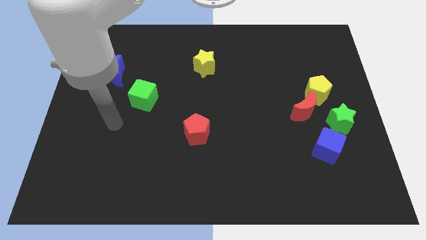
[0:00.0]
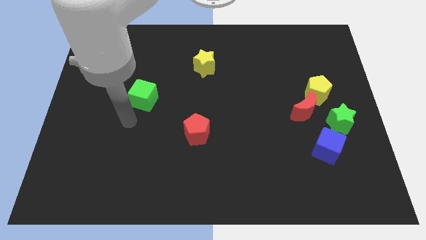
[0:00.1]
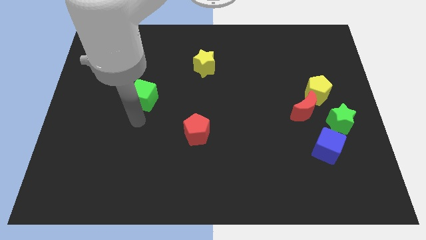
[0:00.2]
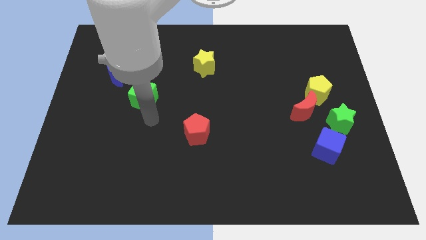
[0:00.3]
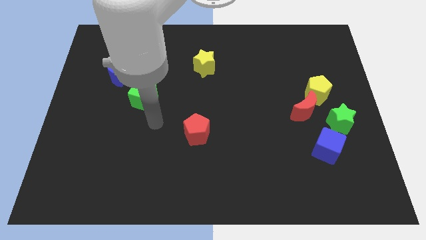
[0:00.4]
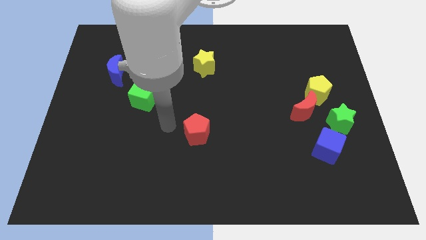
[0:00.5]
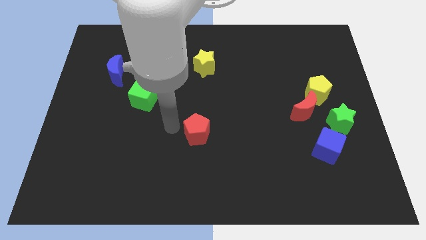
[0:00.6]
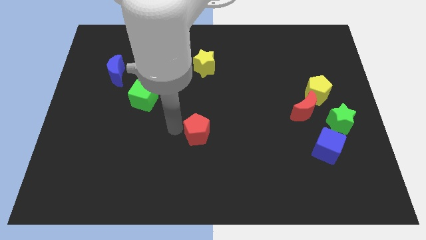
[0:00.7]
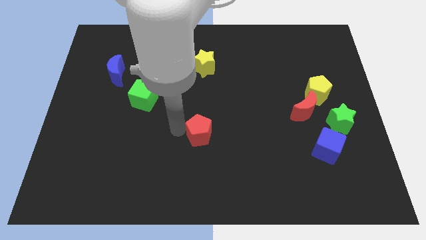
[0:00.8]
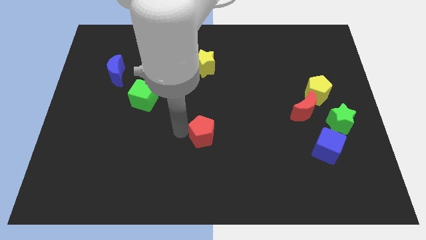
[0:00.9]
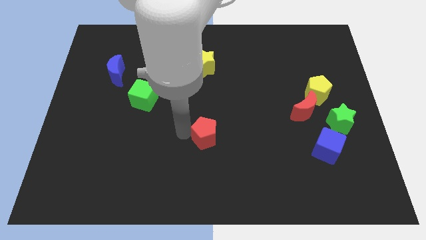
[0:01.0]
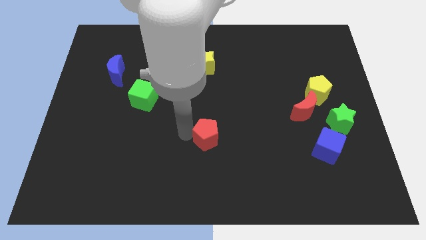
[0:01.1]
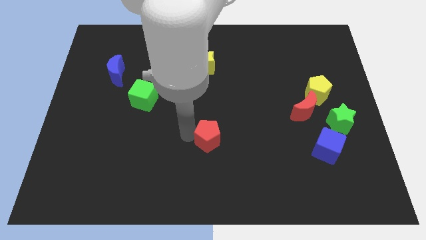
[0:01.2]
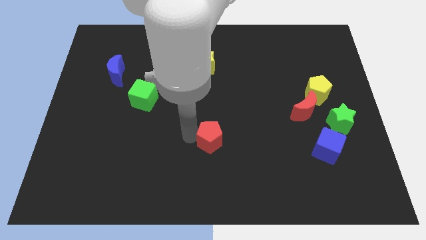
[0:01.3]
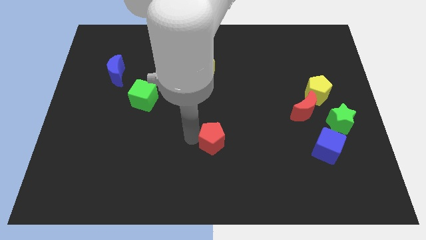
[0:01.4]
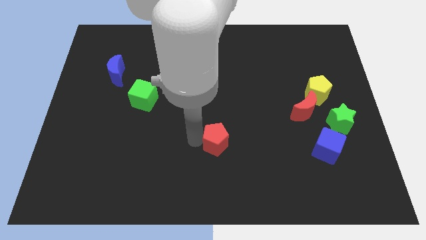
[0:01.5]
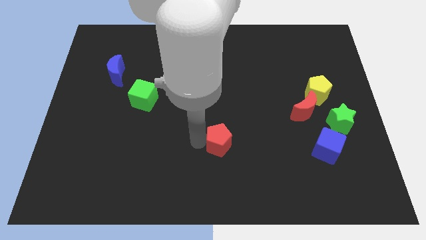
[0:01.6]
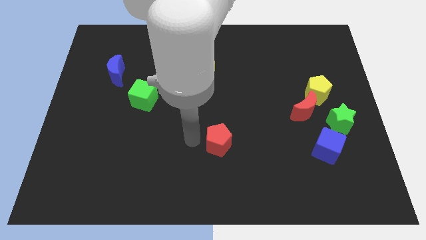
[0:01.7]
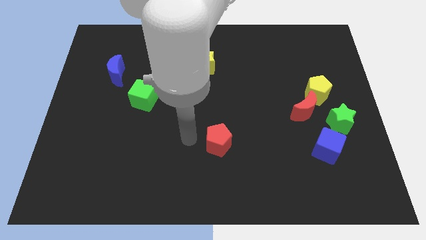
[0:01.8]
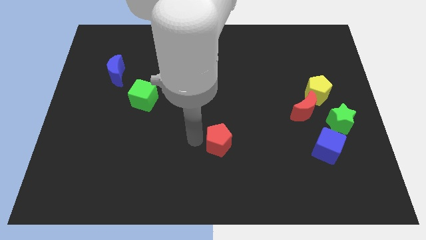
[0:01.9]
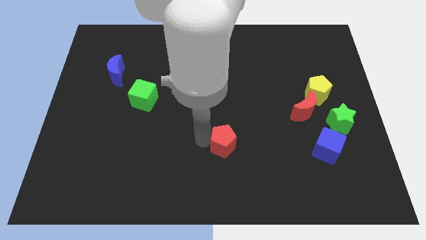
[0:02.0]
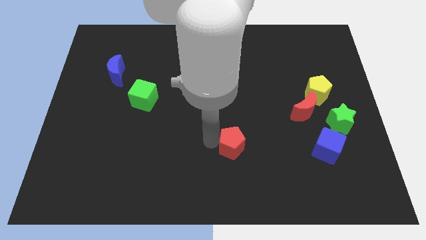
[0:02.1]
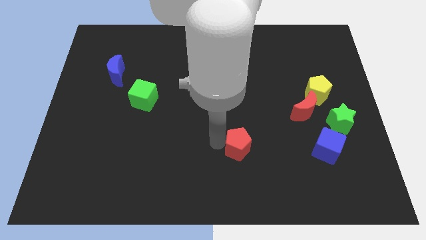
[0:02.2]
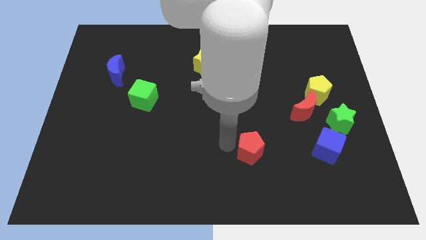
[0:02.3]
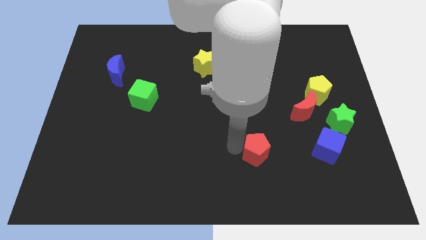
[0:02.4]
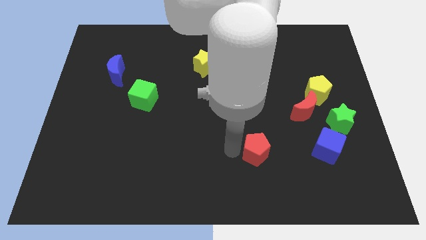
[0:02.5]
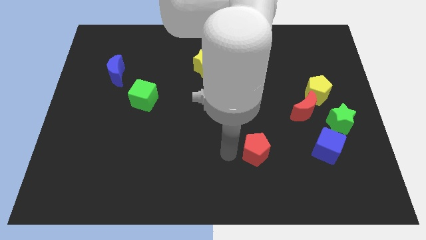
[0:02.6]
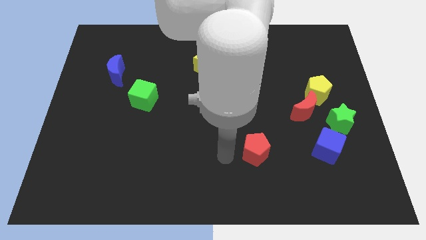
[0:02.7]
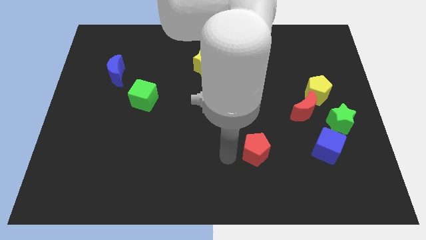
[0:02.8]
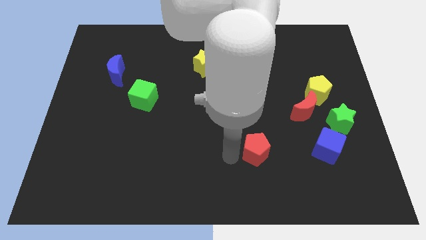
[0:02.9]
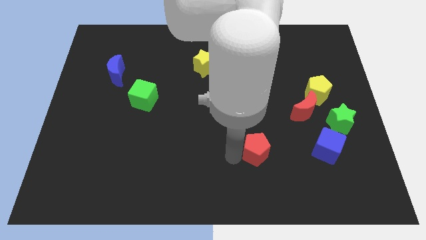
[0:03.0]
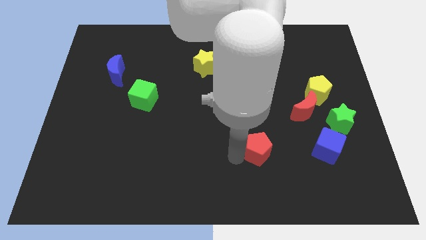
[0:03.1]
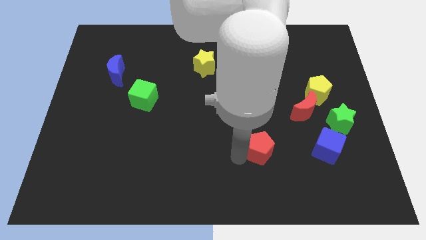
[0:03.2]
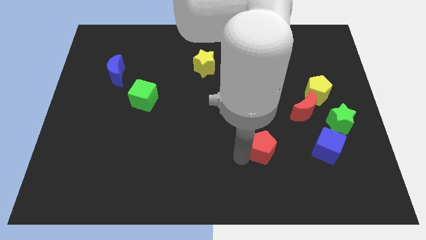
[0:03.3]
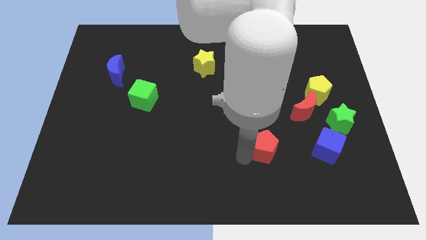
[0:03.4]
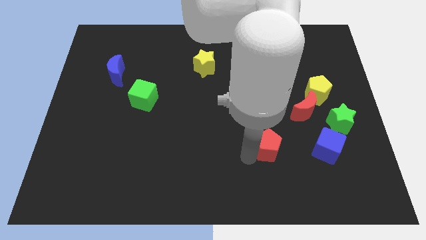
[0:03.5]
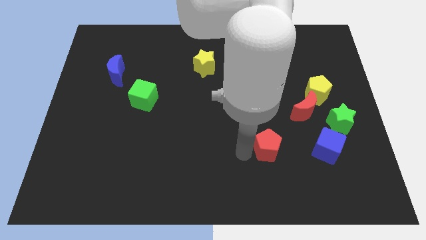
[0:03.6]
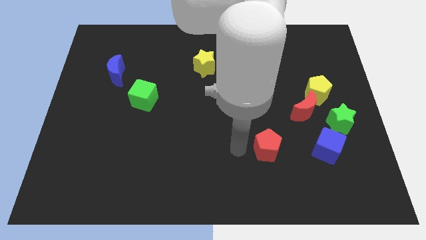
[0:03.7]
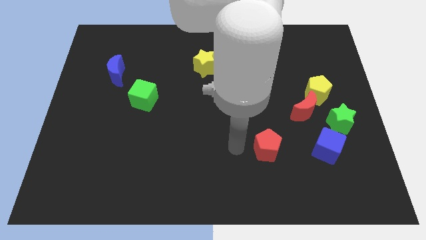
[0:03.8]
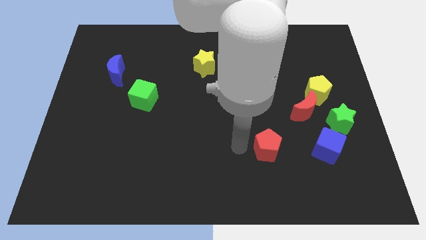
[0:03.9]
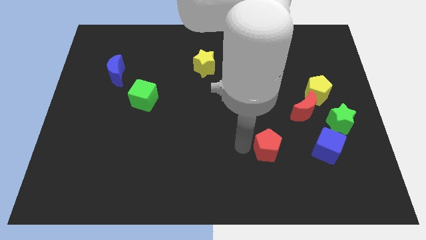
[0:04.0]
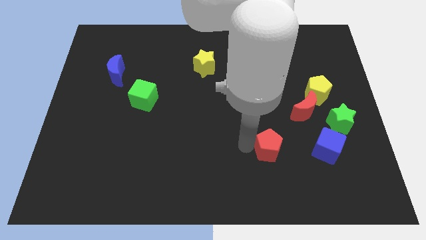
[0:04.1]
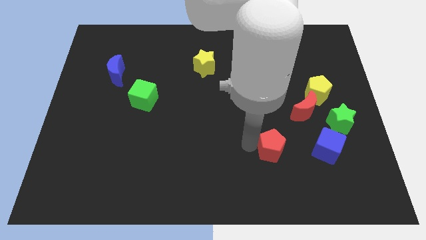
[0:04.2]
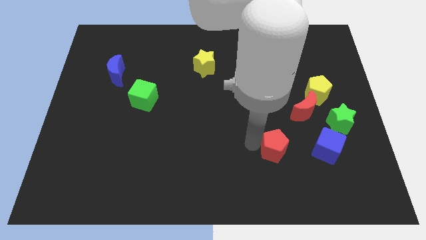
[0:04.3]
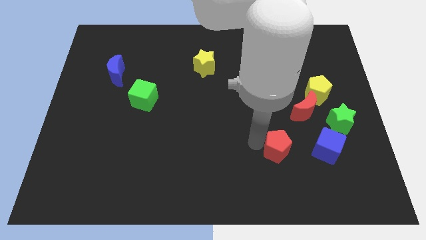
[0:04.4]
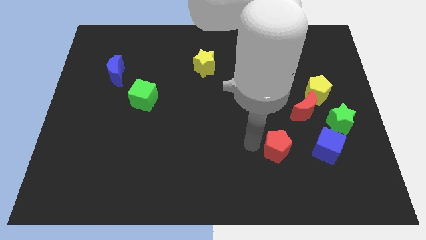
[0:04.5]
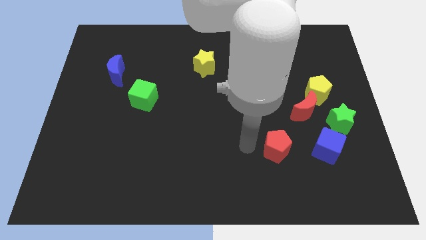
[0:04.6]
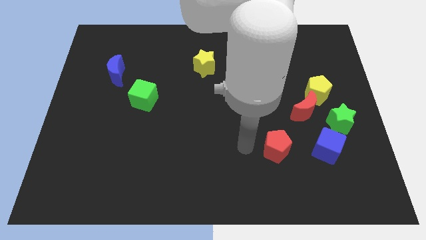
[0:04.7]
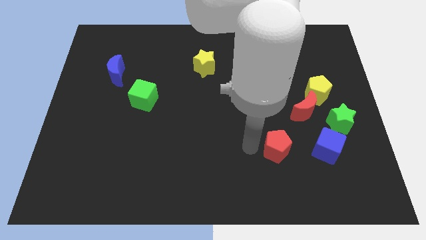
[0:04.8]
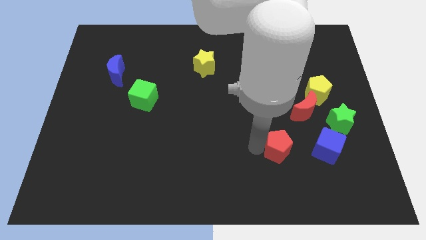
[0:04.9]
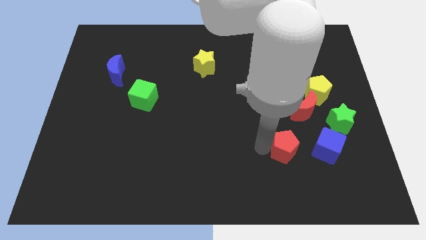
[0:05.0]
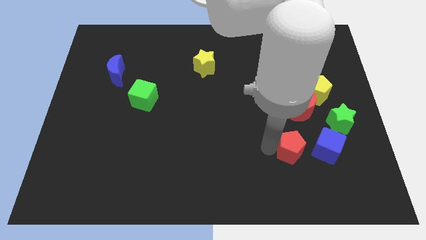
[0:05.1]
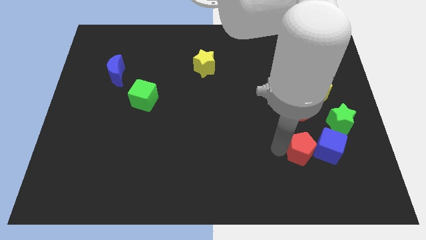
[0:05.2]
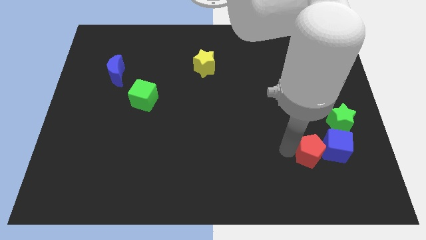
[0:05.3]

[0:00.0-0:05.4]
move the red pentagon next to the blue cube

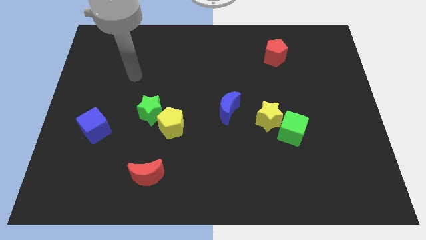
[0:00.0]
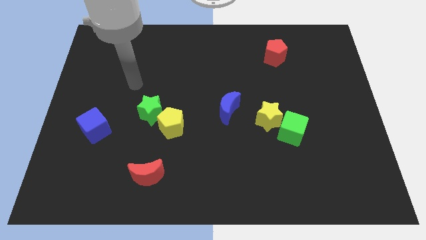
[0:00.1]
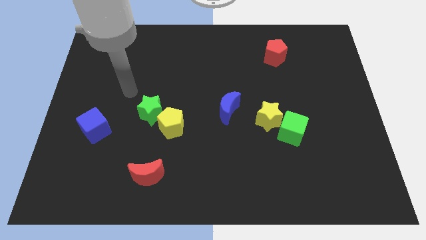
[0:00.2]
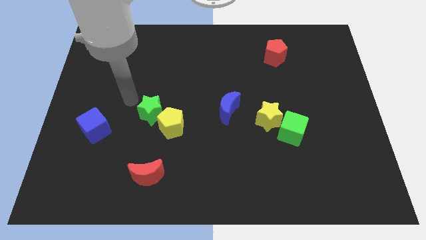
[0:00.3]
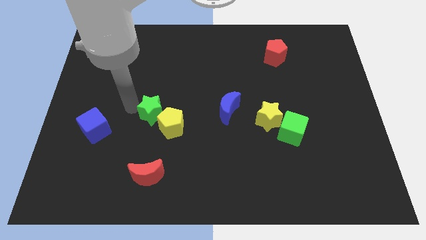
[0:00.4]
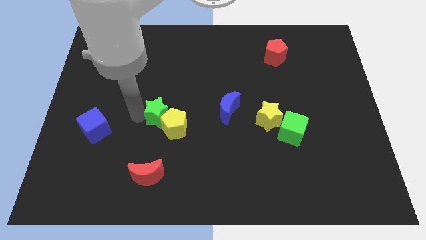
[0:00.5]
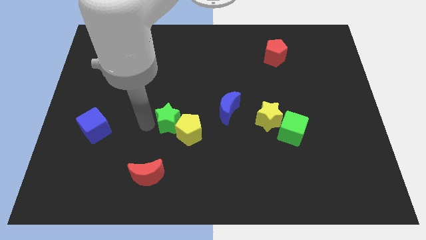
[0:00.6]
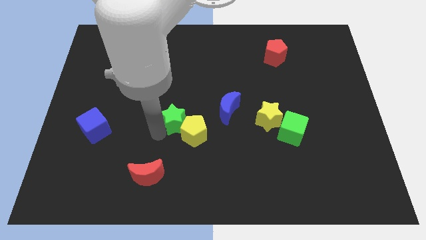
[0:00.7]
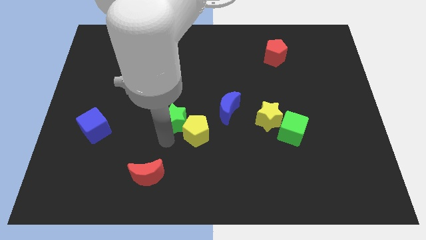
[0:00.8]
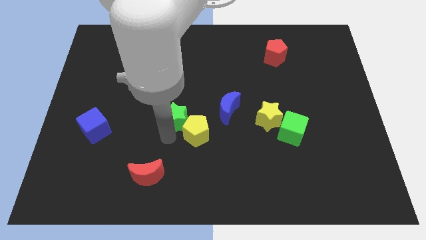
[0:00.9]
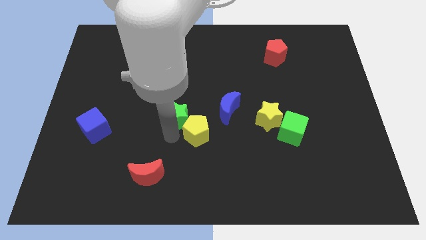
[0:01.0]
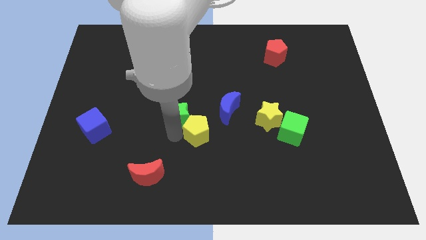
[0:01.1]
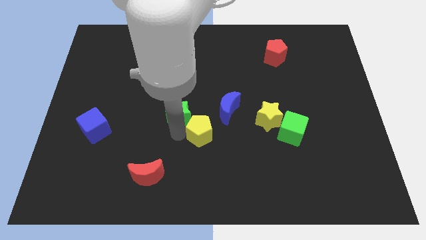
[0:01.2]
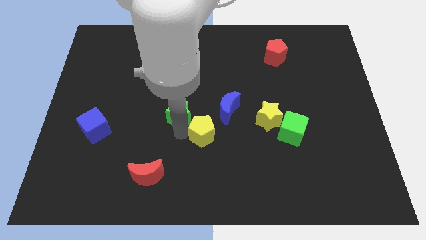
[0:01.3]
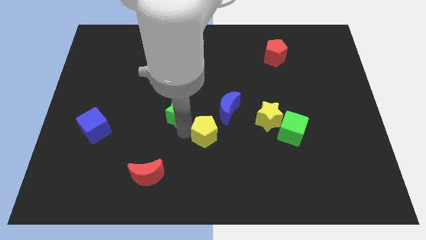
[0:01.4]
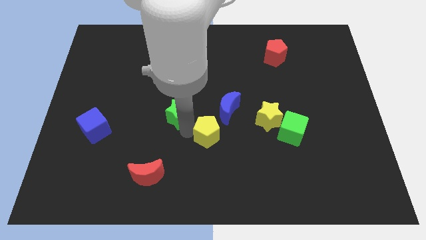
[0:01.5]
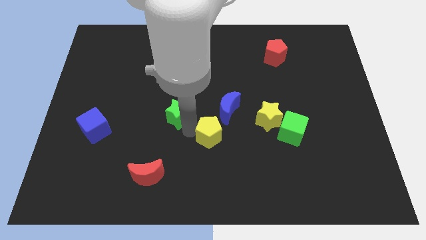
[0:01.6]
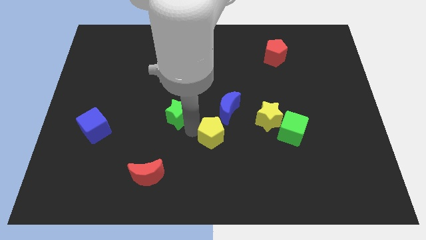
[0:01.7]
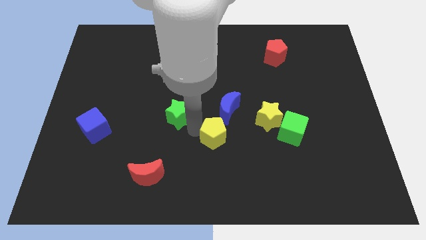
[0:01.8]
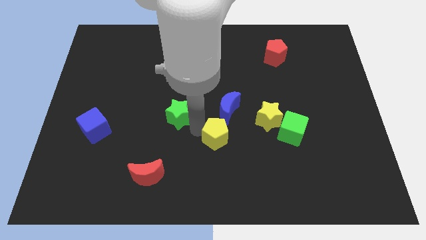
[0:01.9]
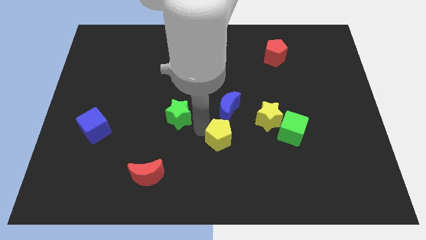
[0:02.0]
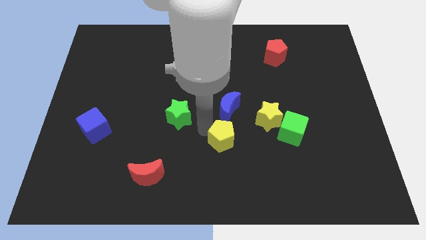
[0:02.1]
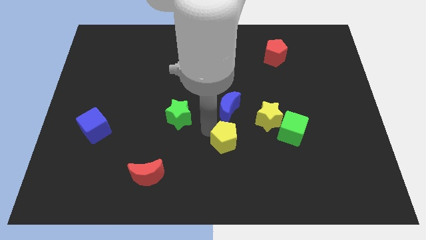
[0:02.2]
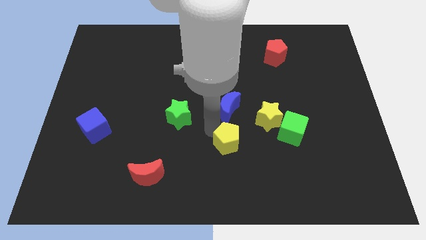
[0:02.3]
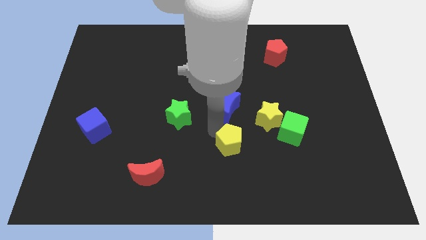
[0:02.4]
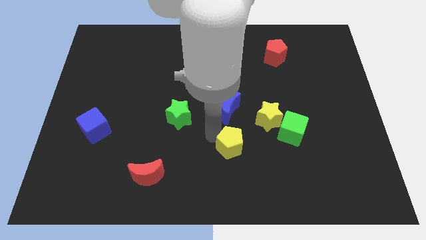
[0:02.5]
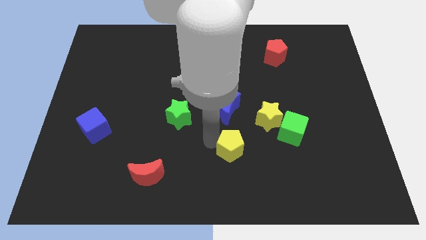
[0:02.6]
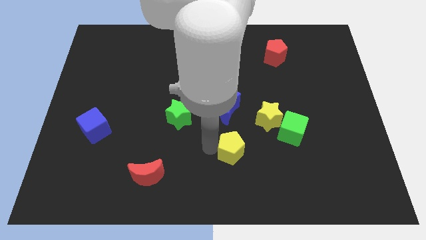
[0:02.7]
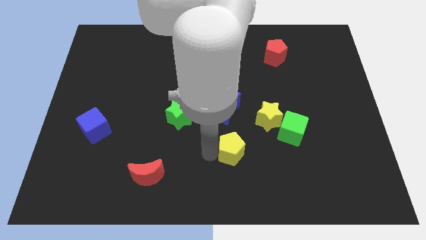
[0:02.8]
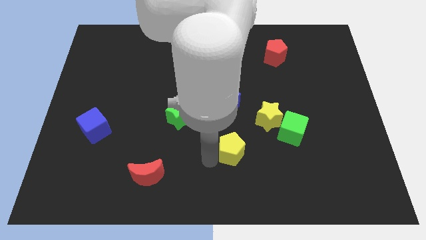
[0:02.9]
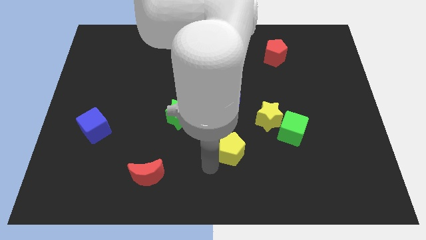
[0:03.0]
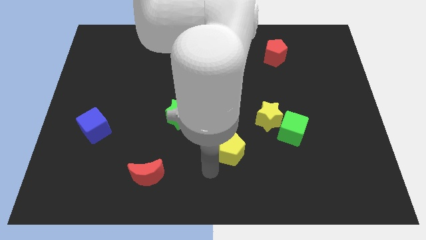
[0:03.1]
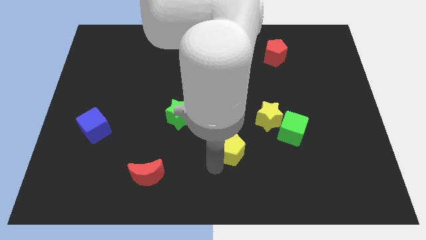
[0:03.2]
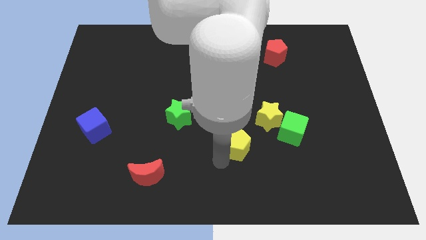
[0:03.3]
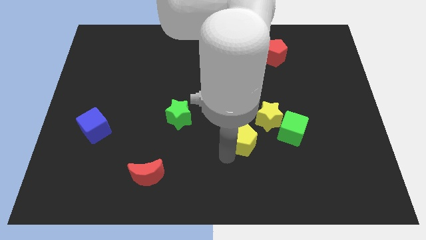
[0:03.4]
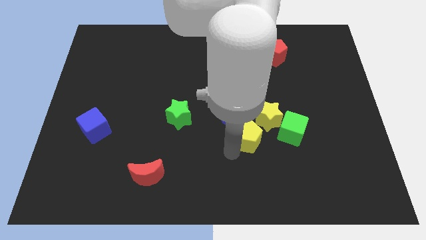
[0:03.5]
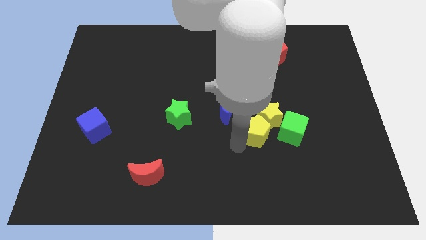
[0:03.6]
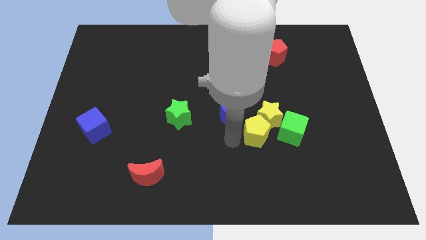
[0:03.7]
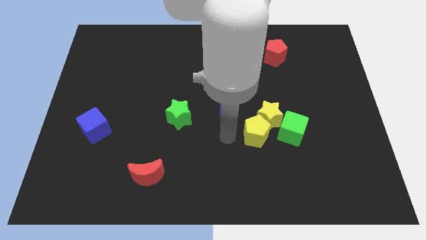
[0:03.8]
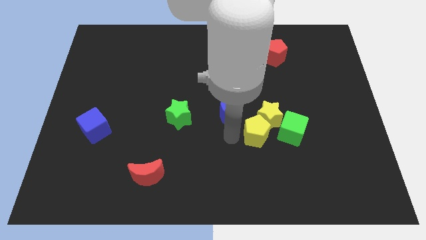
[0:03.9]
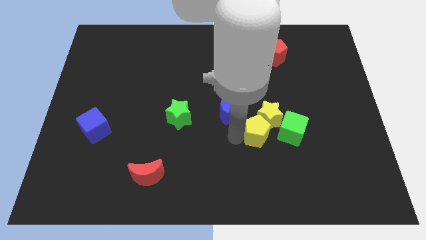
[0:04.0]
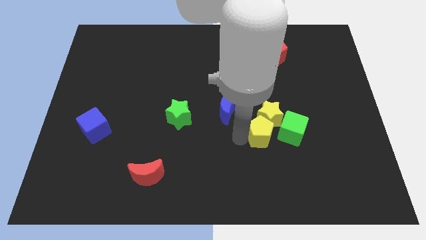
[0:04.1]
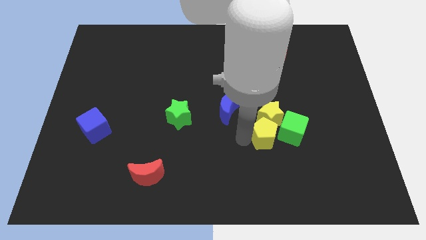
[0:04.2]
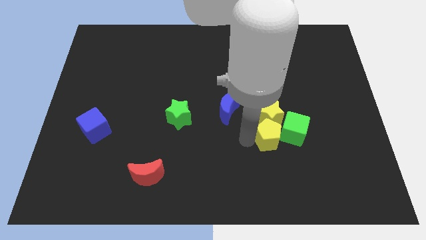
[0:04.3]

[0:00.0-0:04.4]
put the yellow pentagon close to the green cube
